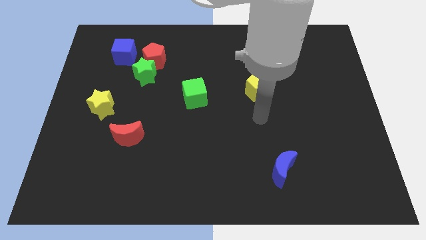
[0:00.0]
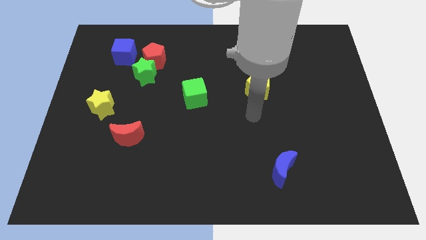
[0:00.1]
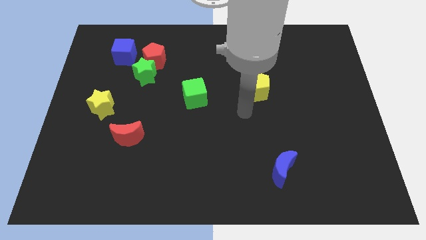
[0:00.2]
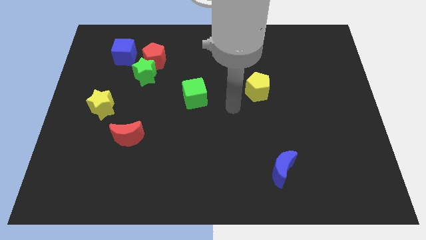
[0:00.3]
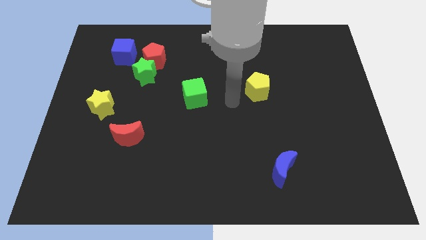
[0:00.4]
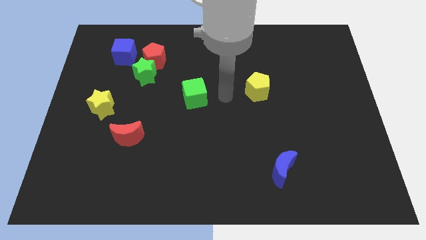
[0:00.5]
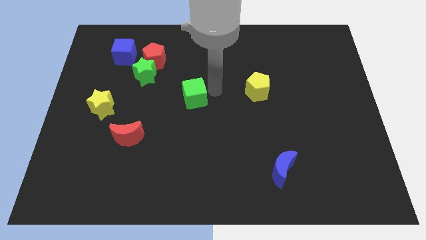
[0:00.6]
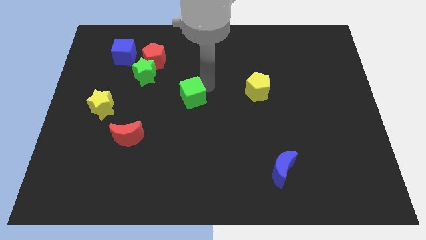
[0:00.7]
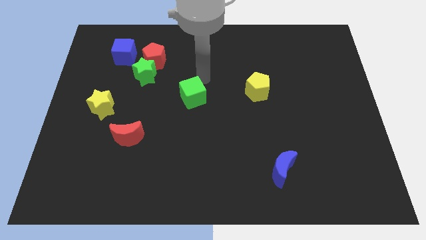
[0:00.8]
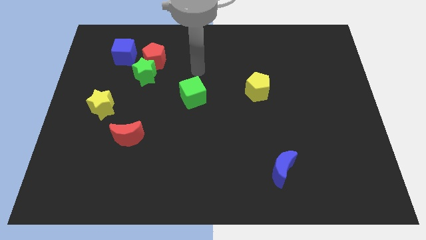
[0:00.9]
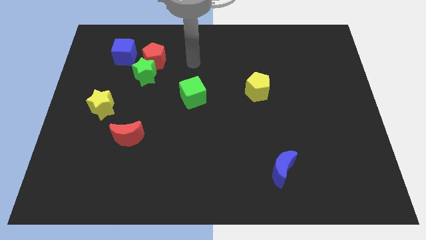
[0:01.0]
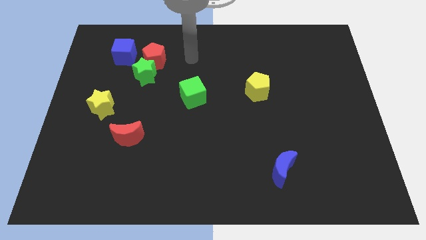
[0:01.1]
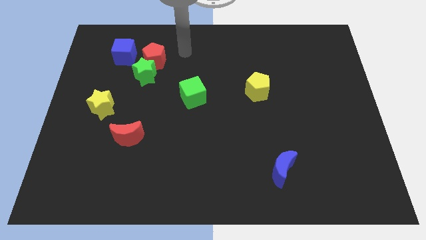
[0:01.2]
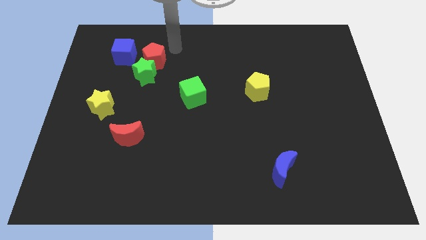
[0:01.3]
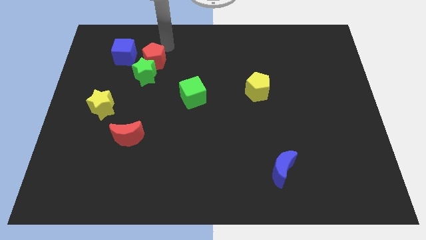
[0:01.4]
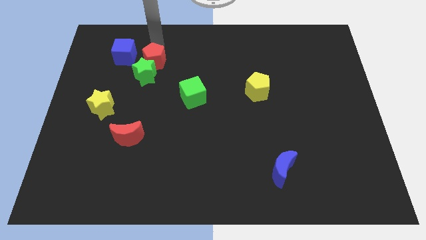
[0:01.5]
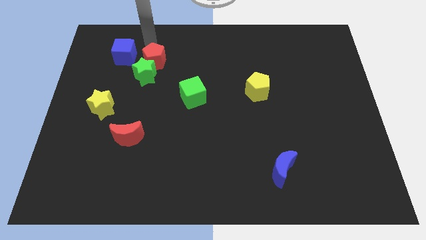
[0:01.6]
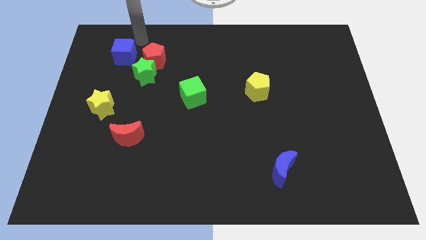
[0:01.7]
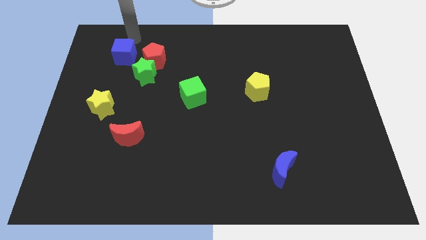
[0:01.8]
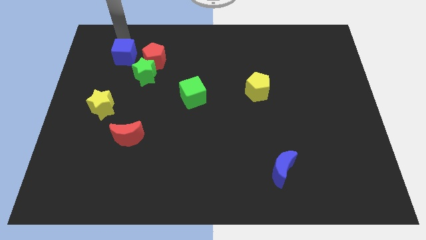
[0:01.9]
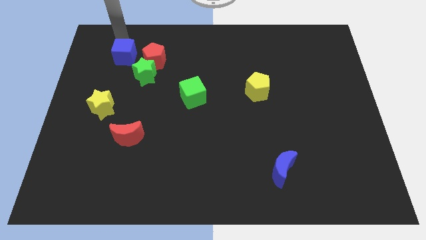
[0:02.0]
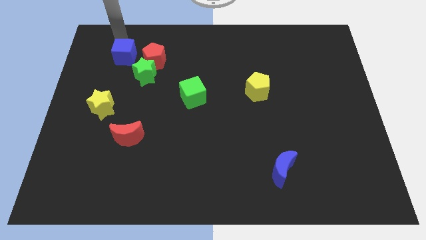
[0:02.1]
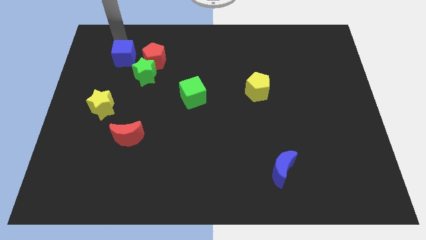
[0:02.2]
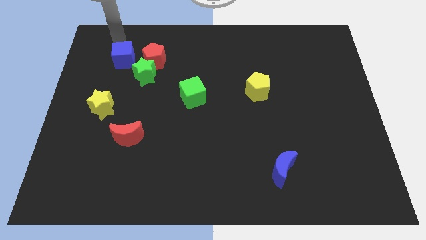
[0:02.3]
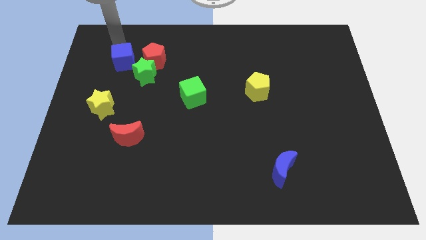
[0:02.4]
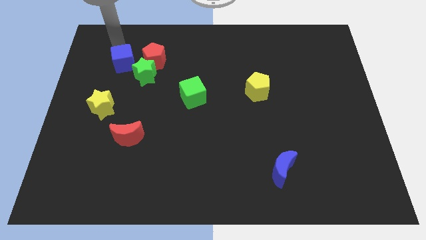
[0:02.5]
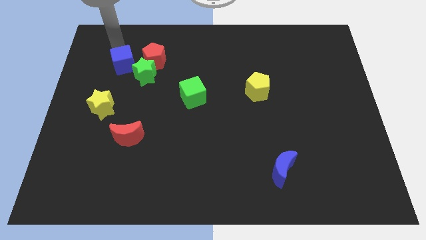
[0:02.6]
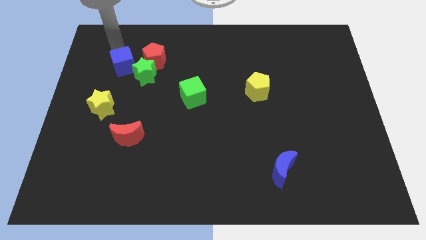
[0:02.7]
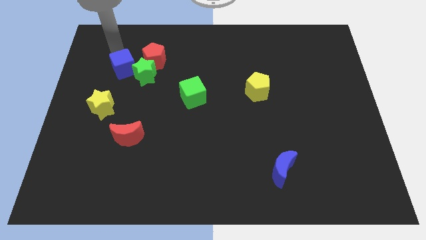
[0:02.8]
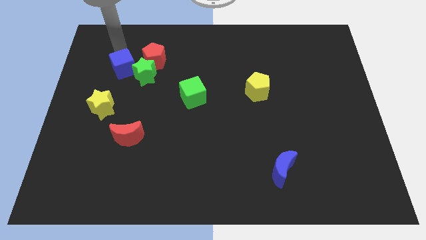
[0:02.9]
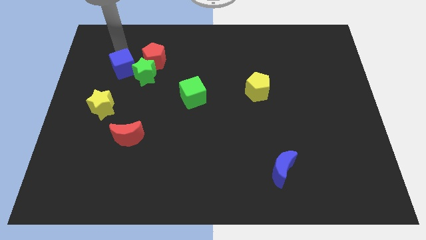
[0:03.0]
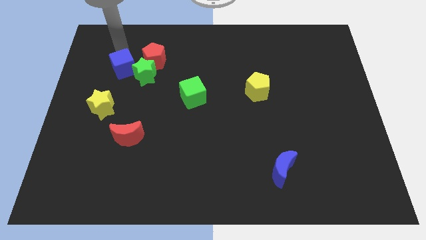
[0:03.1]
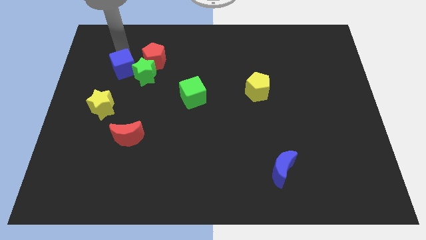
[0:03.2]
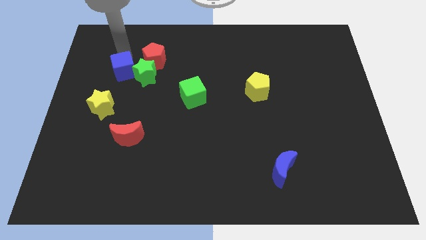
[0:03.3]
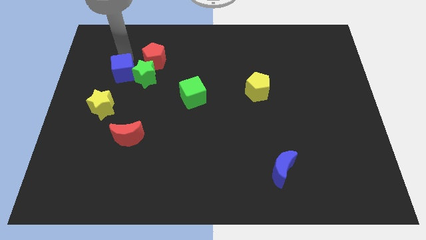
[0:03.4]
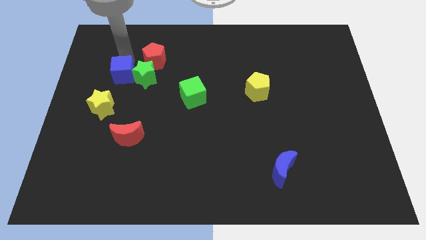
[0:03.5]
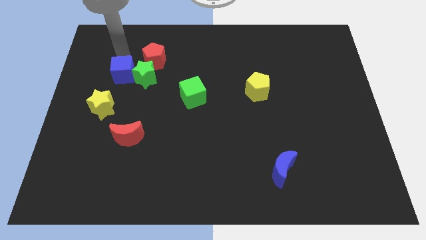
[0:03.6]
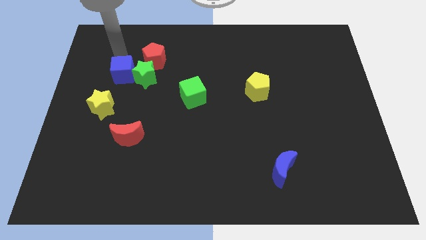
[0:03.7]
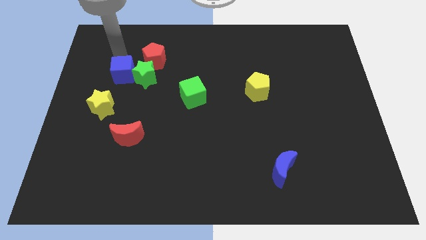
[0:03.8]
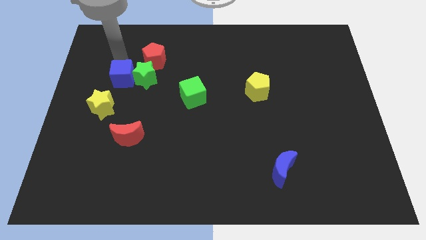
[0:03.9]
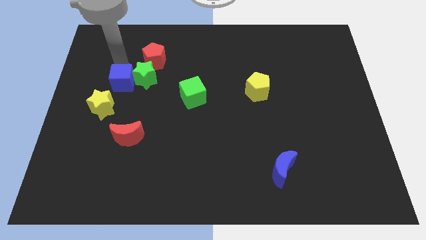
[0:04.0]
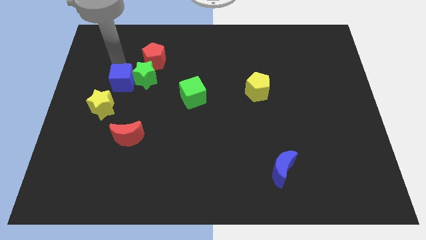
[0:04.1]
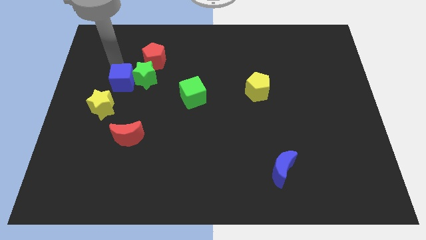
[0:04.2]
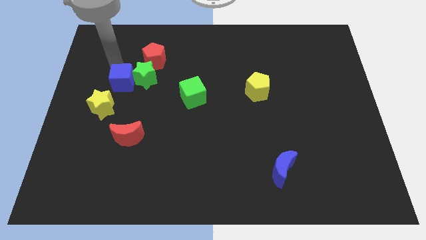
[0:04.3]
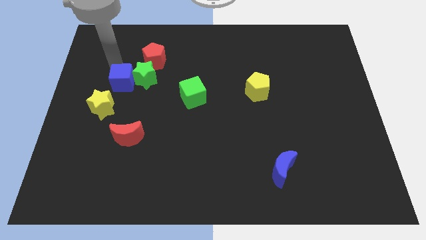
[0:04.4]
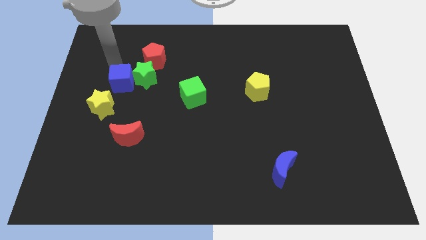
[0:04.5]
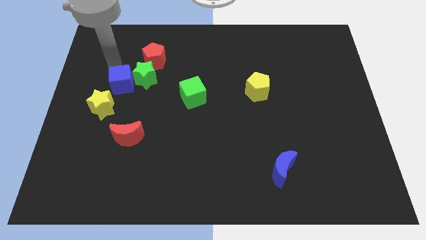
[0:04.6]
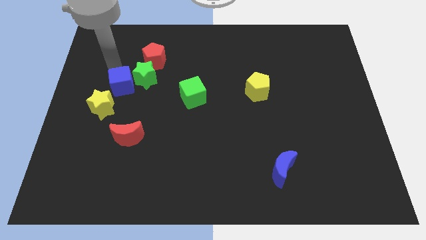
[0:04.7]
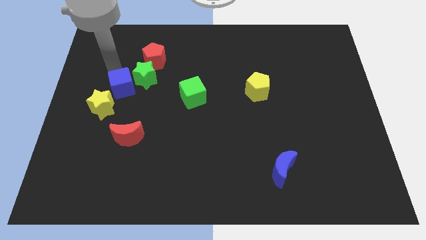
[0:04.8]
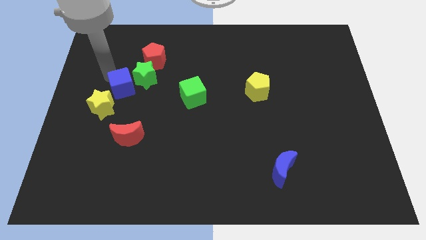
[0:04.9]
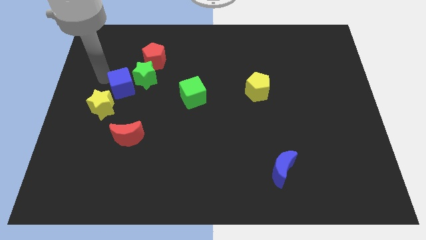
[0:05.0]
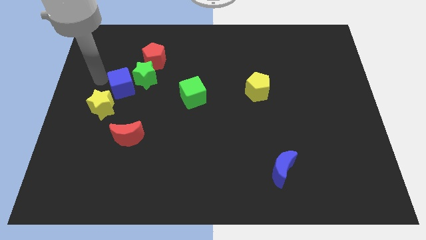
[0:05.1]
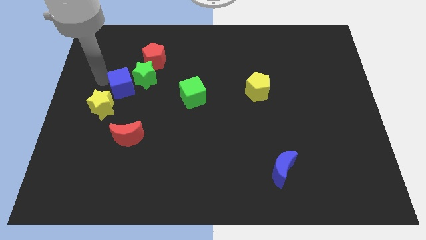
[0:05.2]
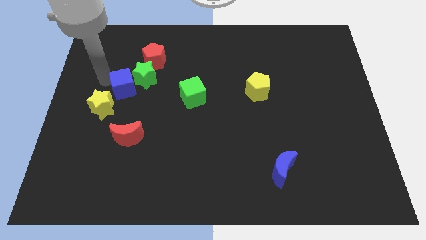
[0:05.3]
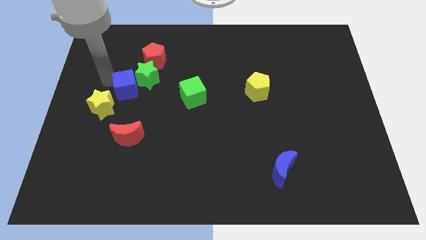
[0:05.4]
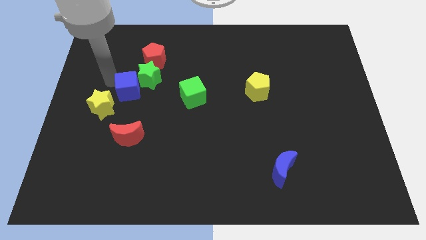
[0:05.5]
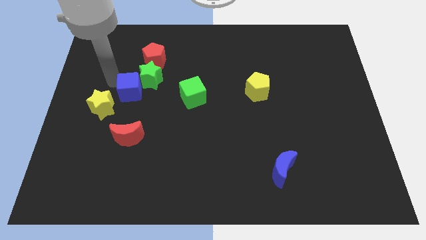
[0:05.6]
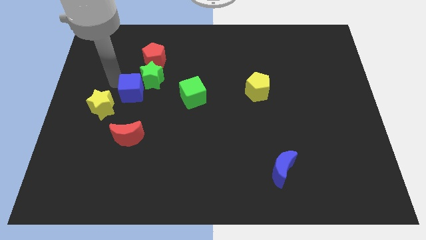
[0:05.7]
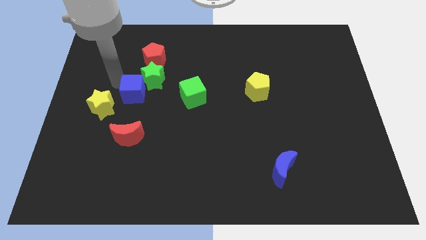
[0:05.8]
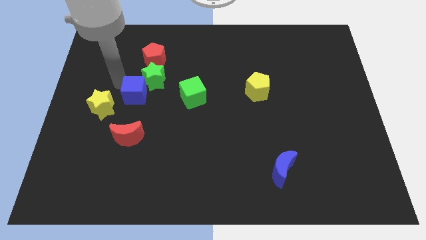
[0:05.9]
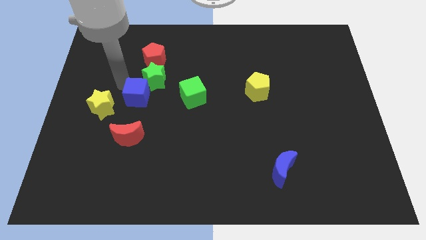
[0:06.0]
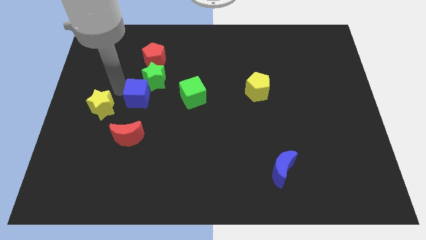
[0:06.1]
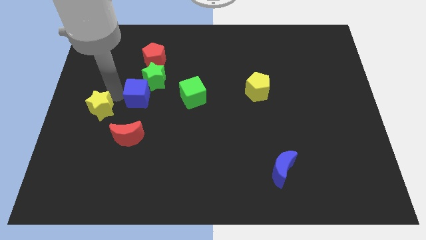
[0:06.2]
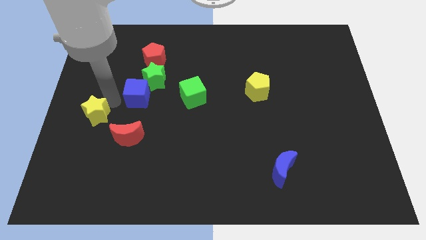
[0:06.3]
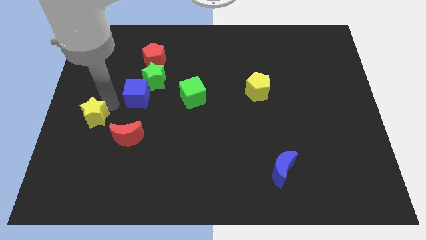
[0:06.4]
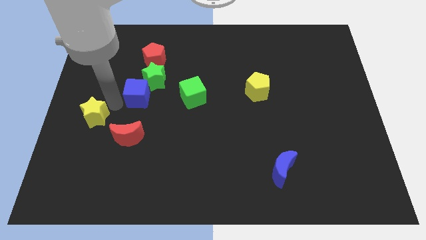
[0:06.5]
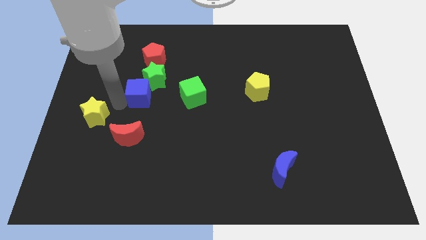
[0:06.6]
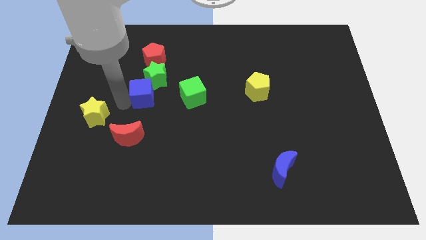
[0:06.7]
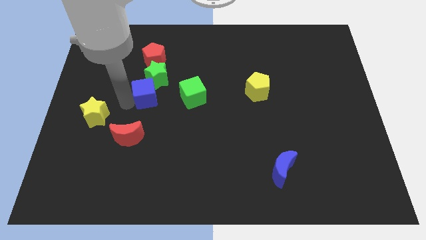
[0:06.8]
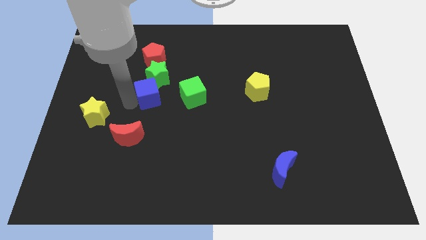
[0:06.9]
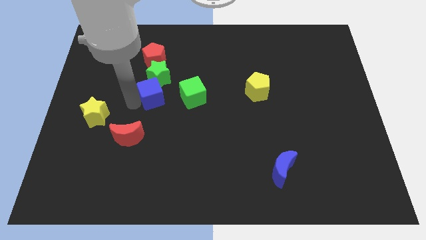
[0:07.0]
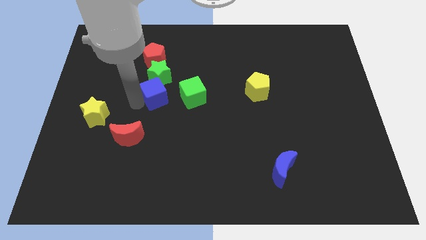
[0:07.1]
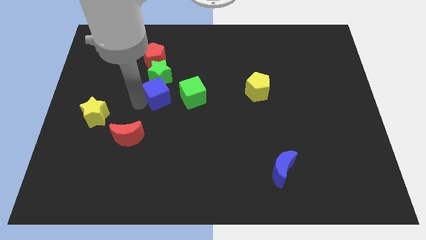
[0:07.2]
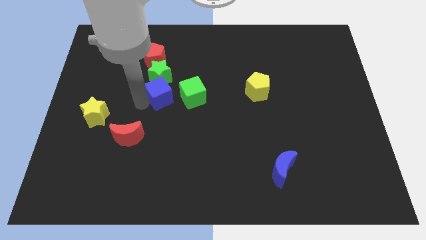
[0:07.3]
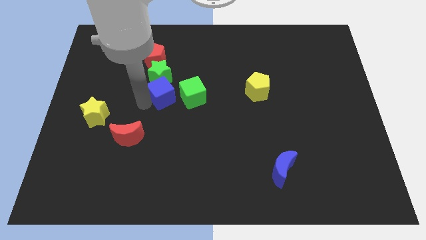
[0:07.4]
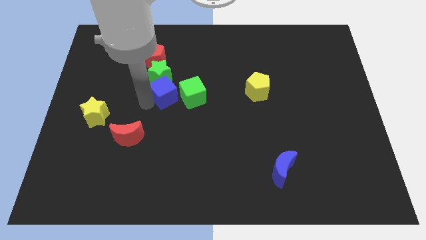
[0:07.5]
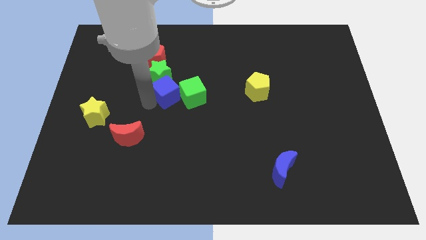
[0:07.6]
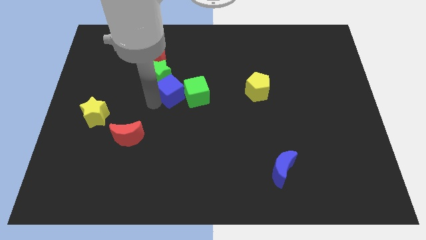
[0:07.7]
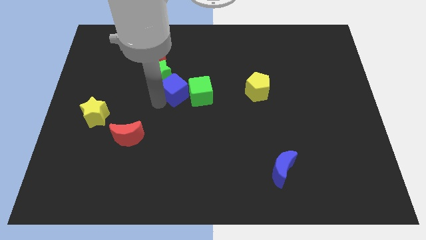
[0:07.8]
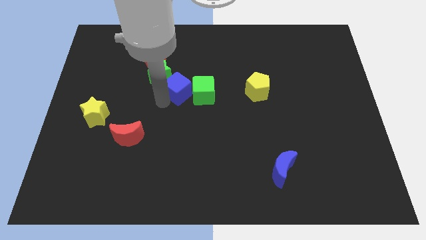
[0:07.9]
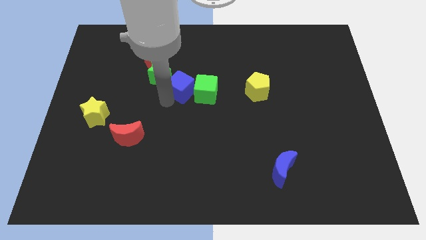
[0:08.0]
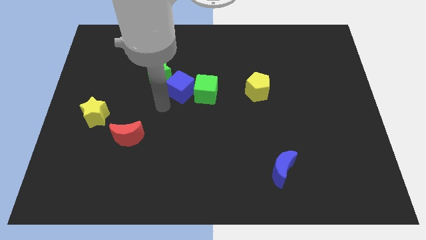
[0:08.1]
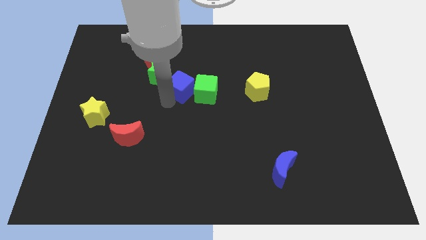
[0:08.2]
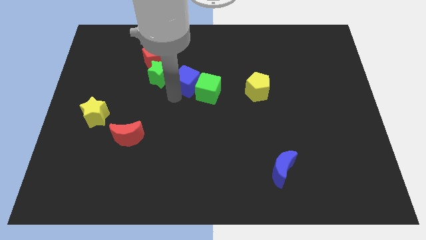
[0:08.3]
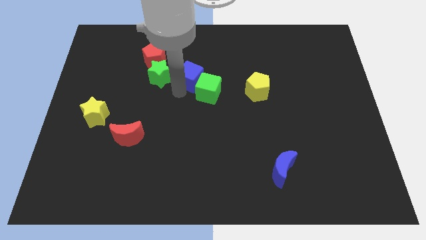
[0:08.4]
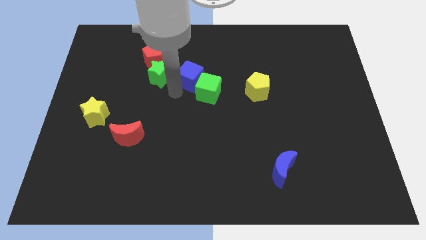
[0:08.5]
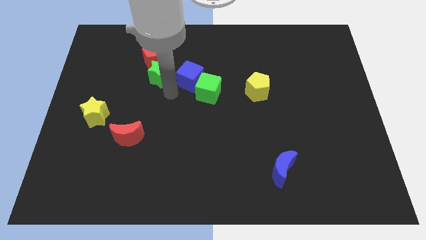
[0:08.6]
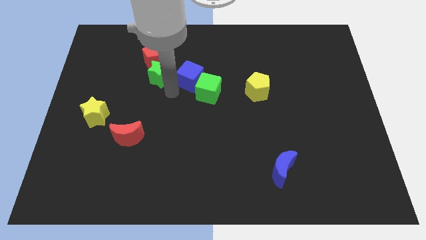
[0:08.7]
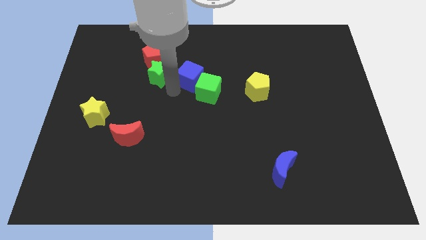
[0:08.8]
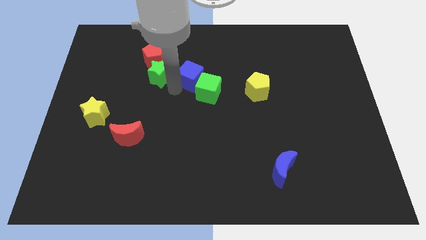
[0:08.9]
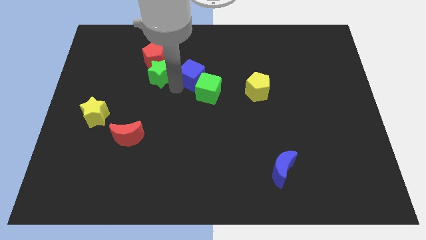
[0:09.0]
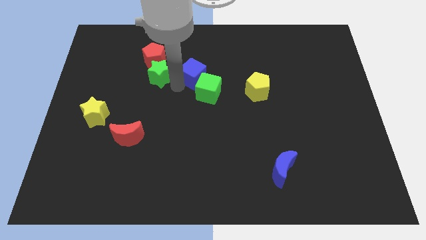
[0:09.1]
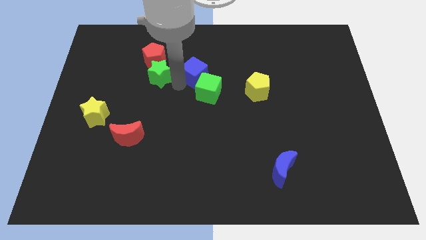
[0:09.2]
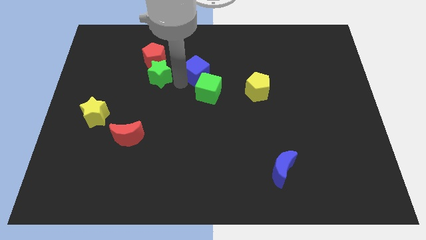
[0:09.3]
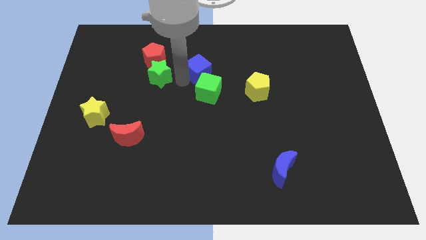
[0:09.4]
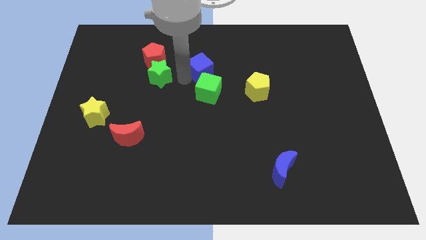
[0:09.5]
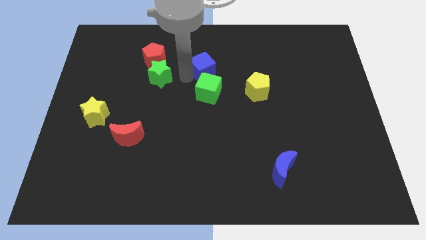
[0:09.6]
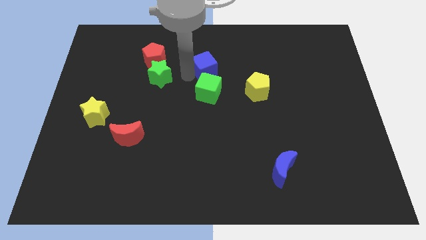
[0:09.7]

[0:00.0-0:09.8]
move the blue cube right
